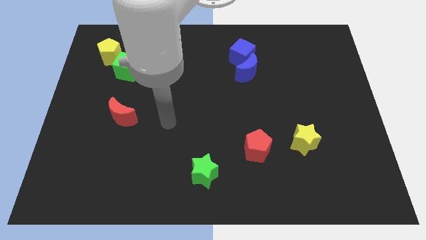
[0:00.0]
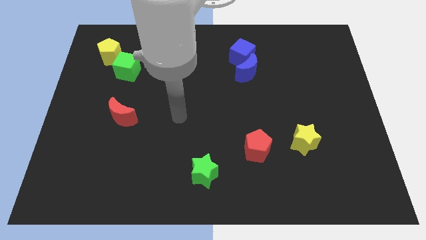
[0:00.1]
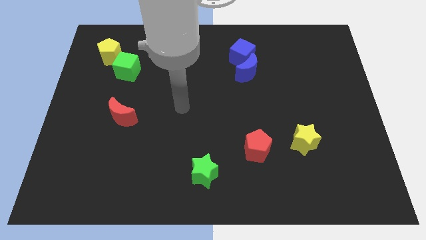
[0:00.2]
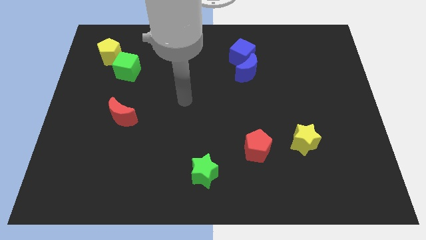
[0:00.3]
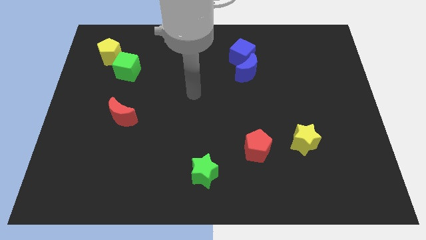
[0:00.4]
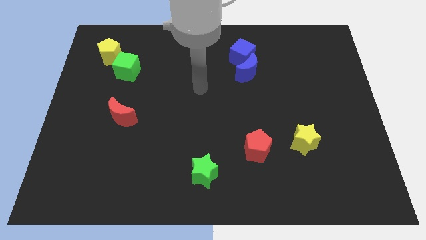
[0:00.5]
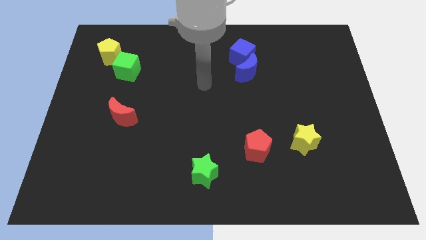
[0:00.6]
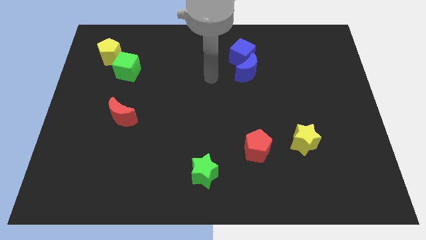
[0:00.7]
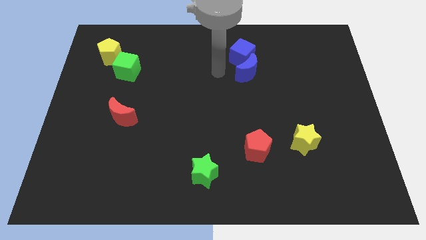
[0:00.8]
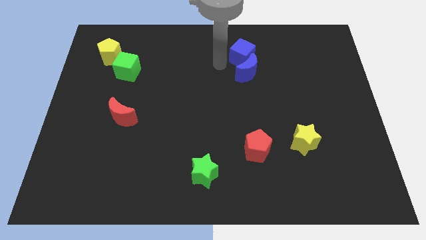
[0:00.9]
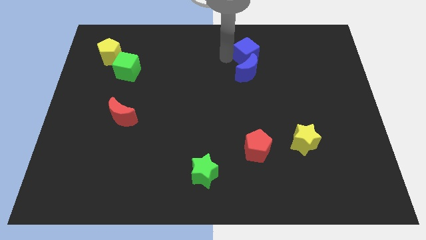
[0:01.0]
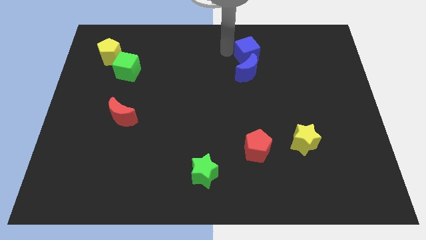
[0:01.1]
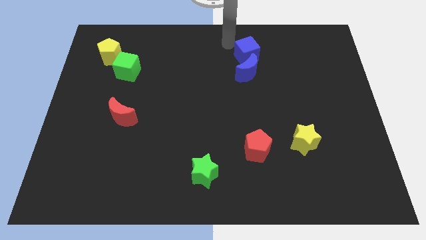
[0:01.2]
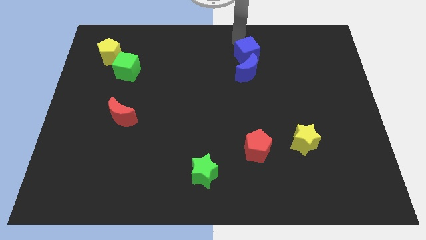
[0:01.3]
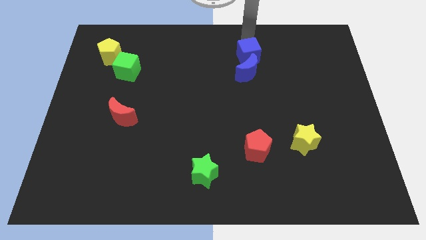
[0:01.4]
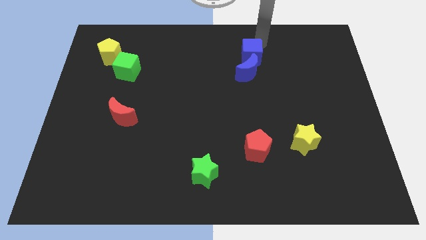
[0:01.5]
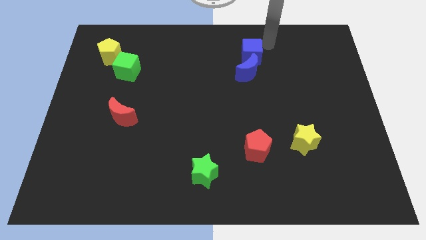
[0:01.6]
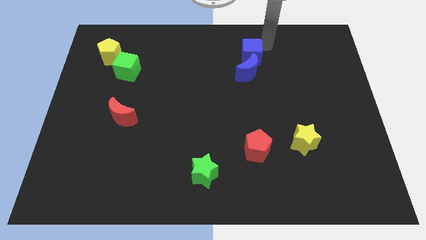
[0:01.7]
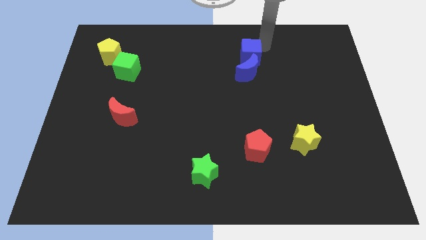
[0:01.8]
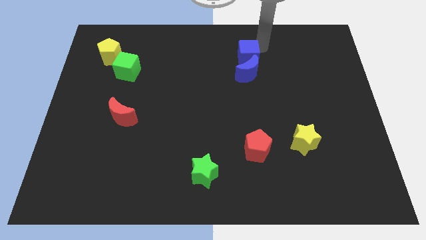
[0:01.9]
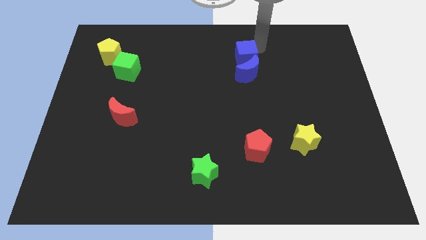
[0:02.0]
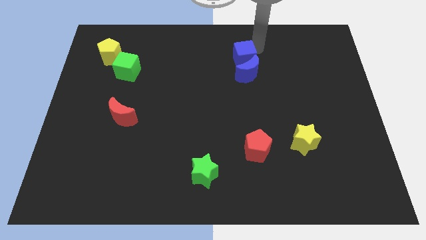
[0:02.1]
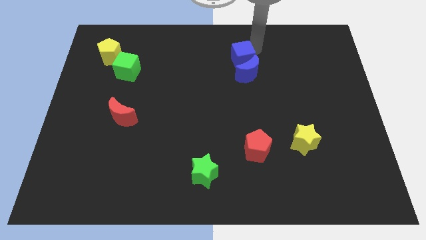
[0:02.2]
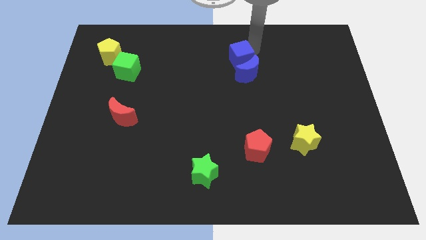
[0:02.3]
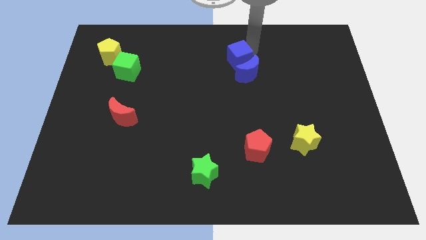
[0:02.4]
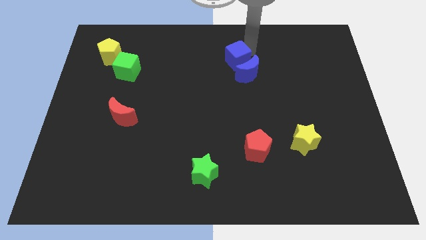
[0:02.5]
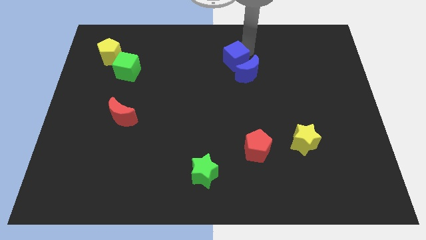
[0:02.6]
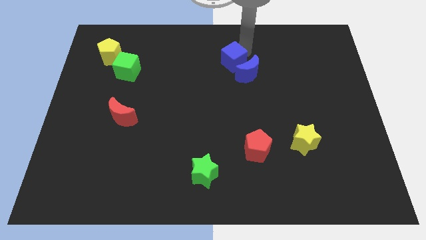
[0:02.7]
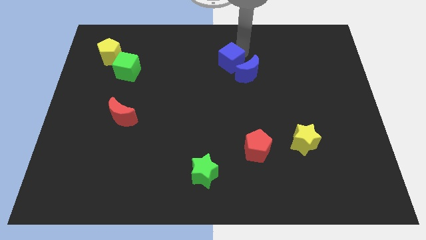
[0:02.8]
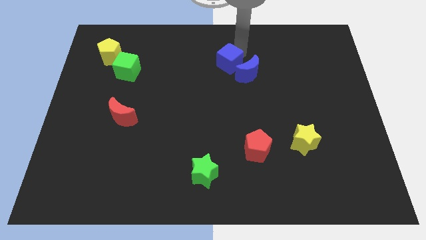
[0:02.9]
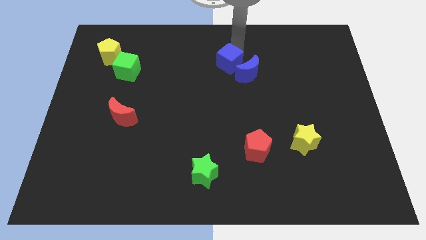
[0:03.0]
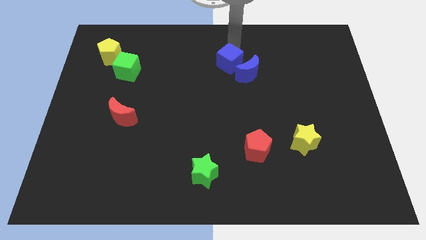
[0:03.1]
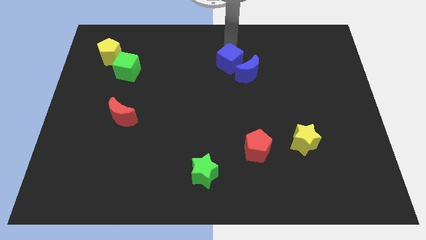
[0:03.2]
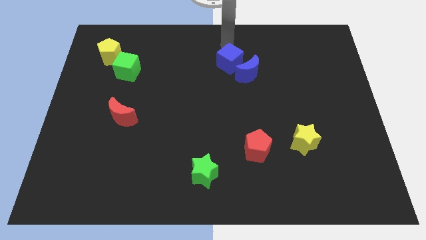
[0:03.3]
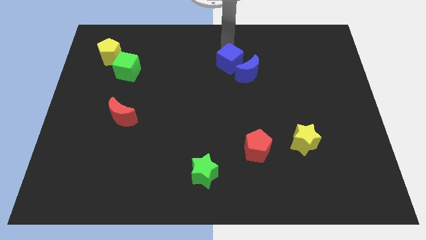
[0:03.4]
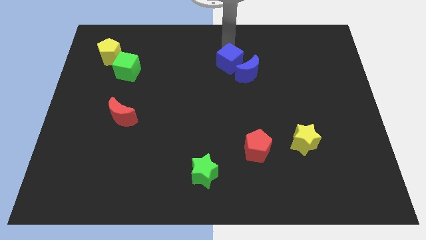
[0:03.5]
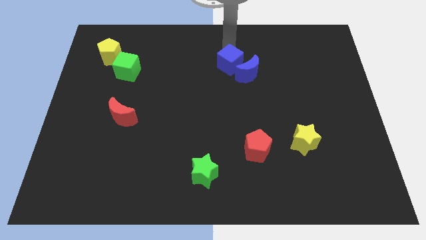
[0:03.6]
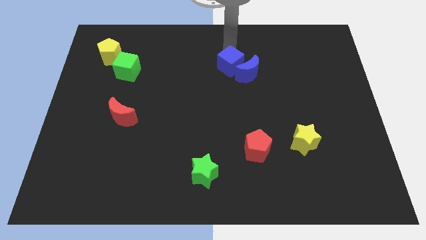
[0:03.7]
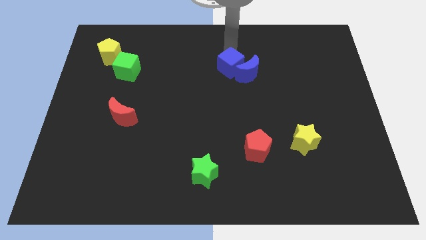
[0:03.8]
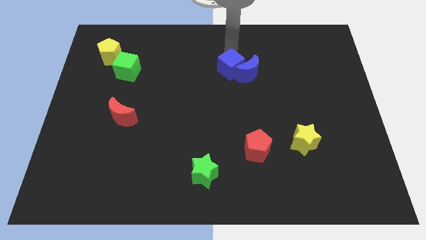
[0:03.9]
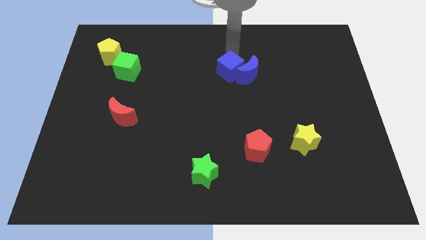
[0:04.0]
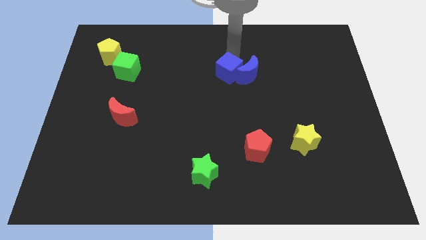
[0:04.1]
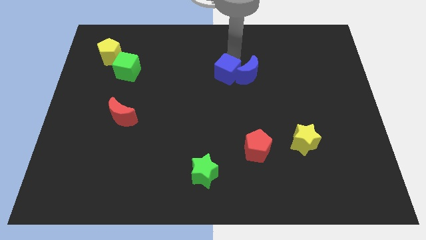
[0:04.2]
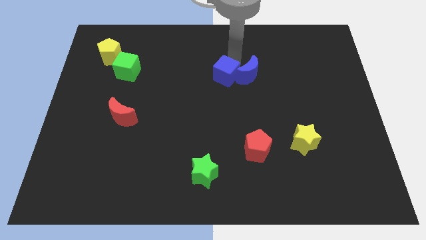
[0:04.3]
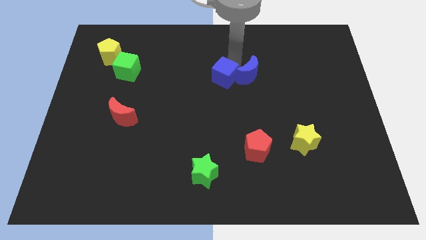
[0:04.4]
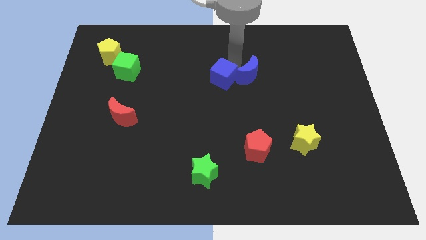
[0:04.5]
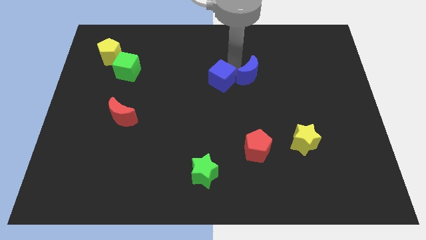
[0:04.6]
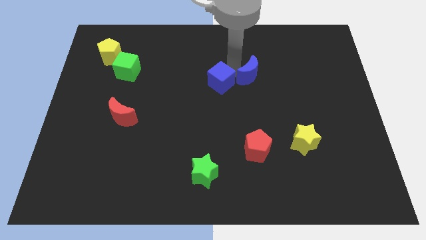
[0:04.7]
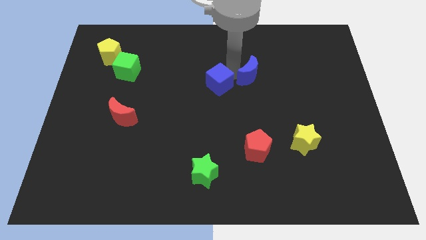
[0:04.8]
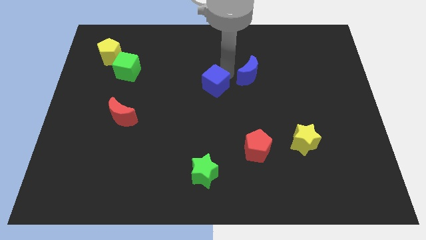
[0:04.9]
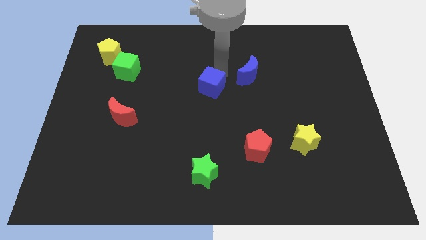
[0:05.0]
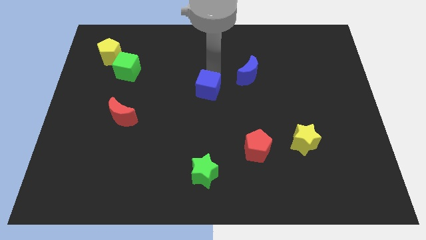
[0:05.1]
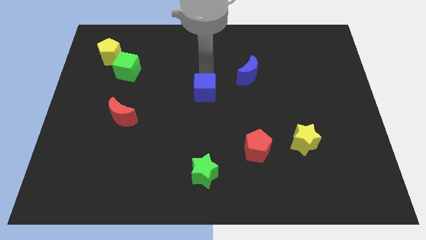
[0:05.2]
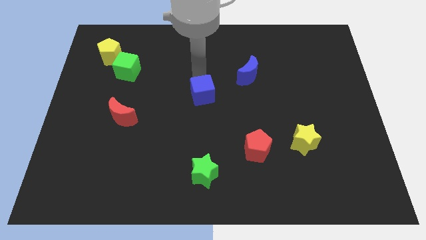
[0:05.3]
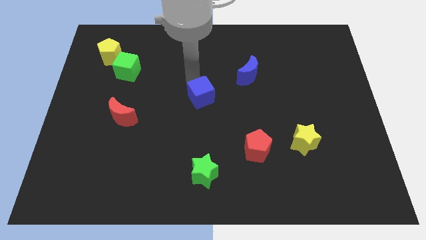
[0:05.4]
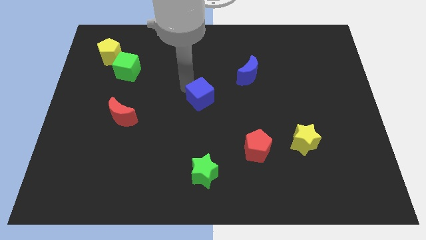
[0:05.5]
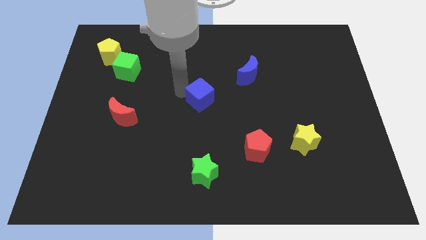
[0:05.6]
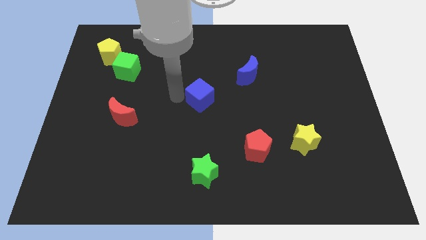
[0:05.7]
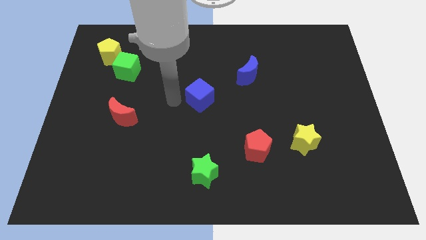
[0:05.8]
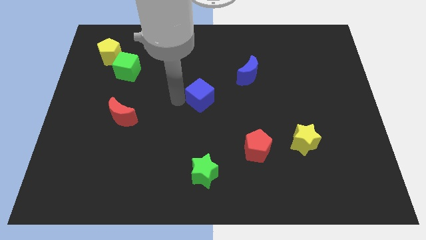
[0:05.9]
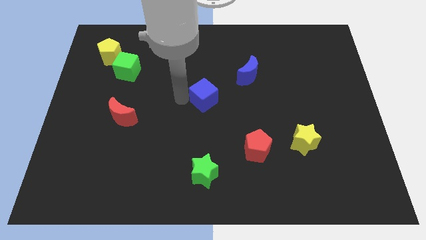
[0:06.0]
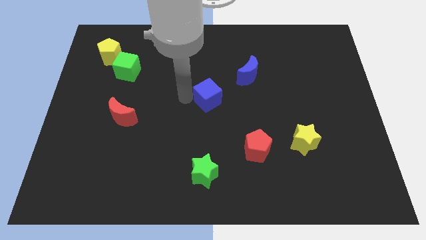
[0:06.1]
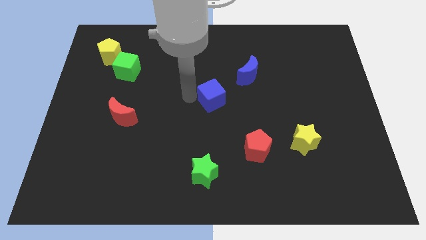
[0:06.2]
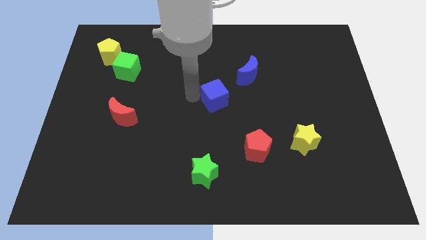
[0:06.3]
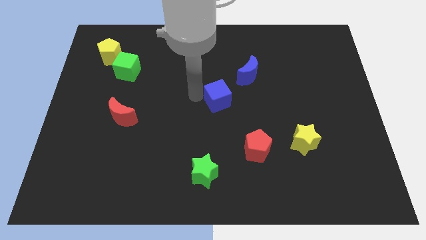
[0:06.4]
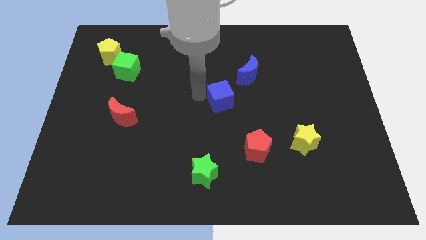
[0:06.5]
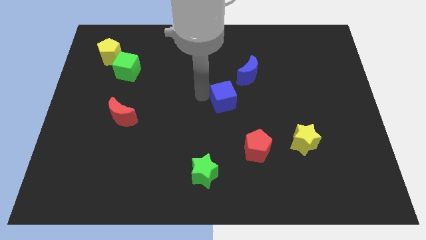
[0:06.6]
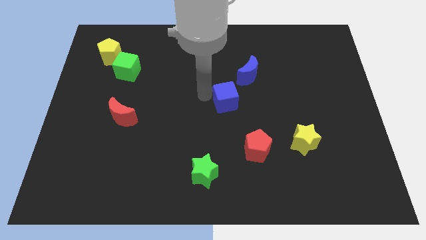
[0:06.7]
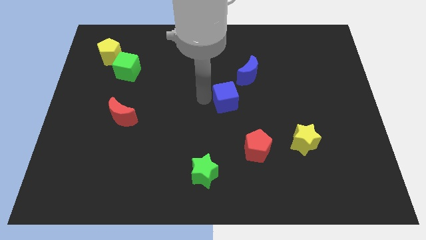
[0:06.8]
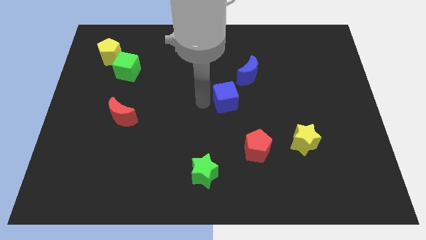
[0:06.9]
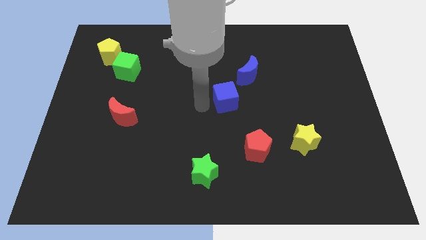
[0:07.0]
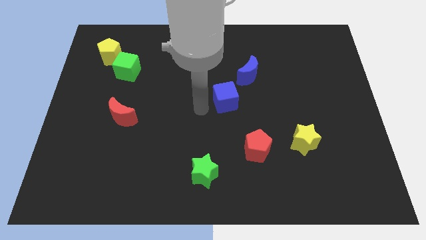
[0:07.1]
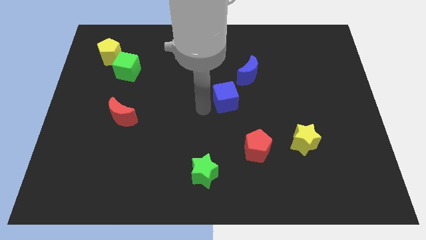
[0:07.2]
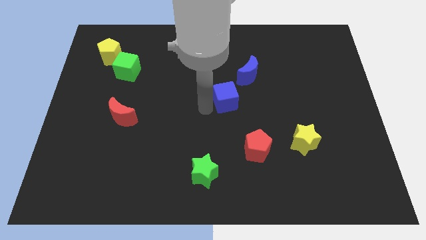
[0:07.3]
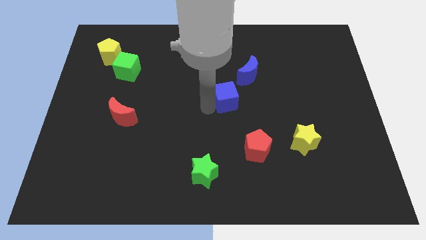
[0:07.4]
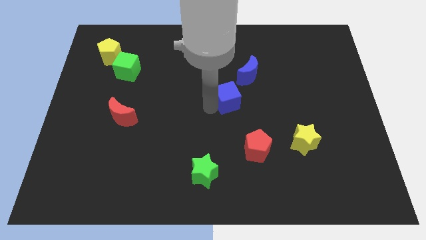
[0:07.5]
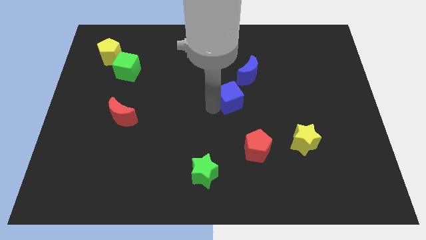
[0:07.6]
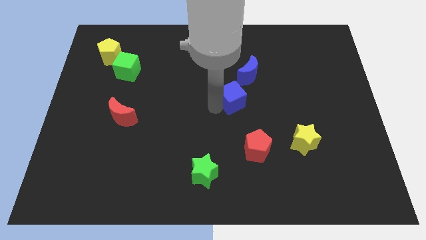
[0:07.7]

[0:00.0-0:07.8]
put the blue cube to the bottom of the blue moon
